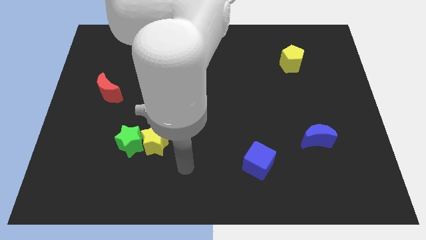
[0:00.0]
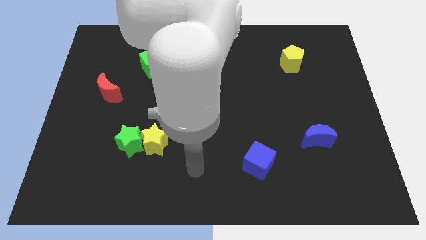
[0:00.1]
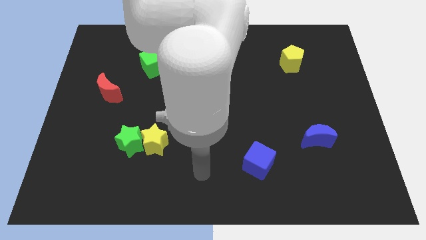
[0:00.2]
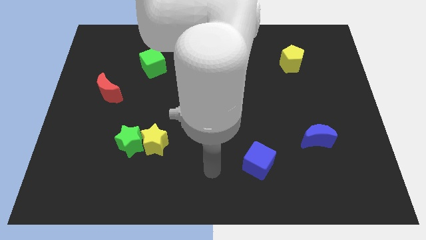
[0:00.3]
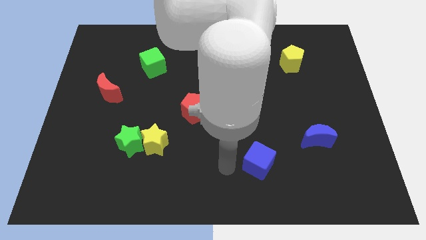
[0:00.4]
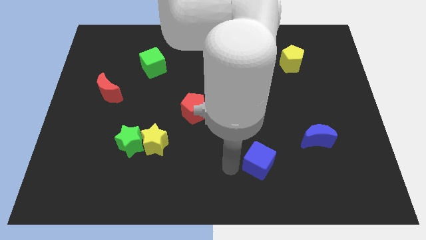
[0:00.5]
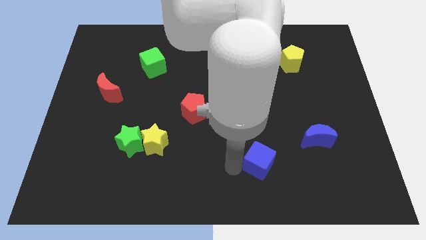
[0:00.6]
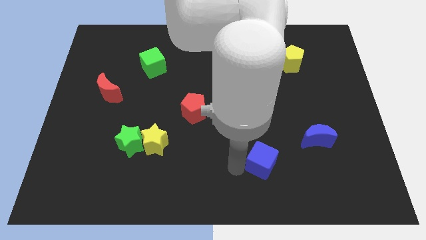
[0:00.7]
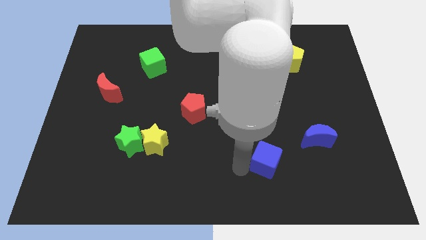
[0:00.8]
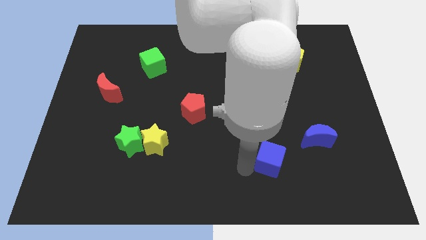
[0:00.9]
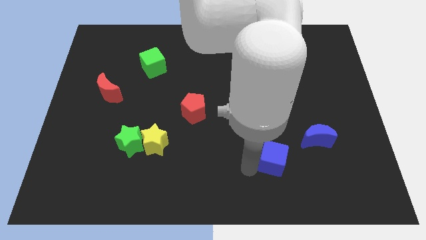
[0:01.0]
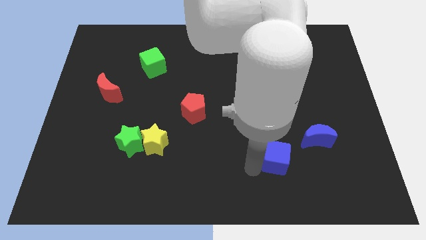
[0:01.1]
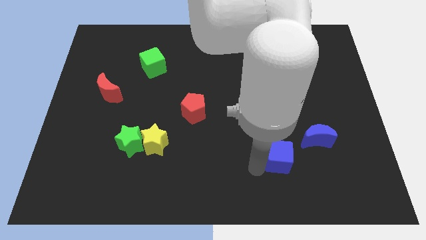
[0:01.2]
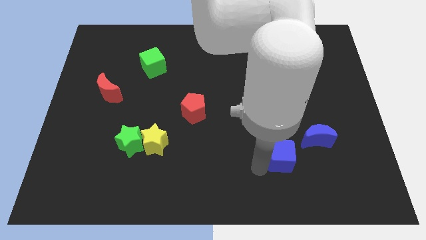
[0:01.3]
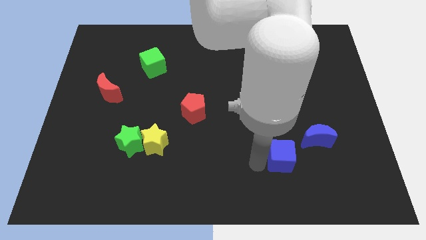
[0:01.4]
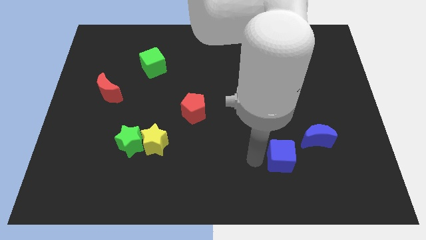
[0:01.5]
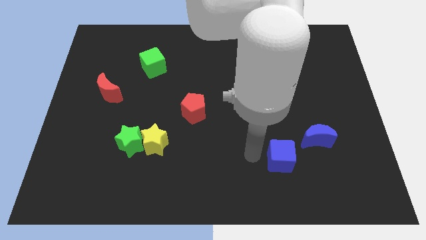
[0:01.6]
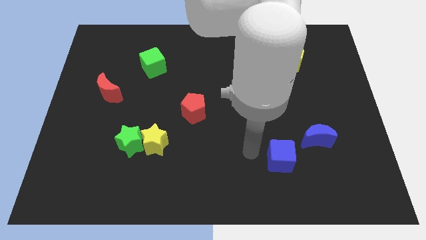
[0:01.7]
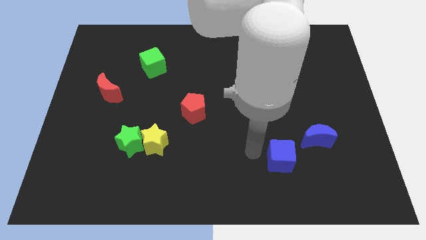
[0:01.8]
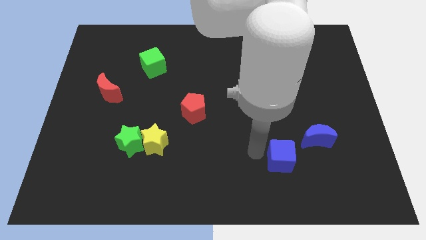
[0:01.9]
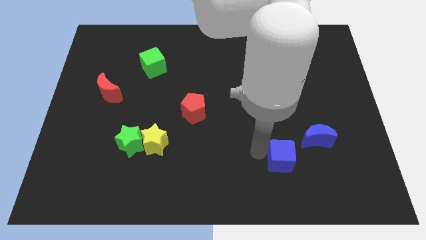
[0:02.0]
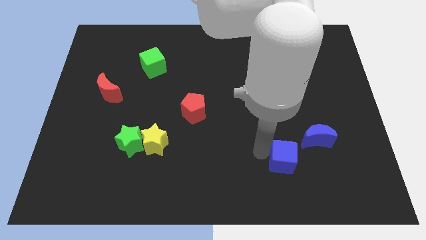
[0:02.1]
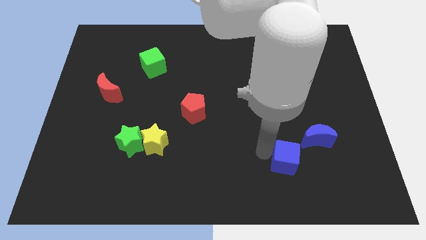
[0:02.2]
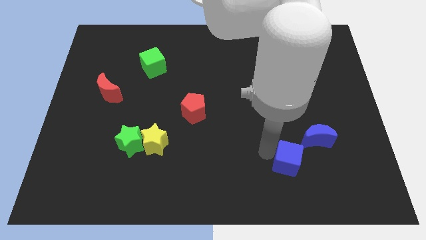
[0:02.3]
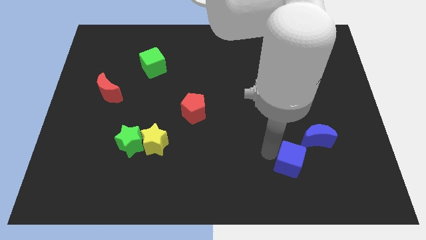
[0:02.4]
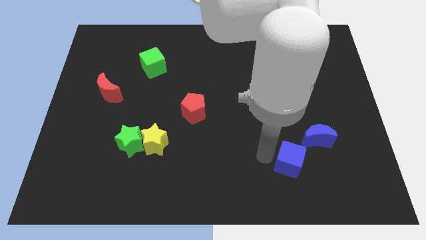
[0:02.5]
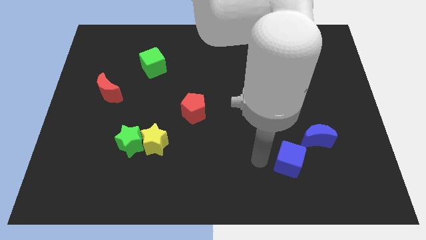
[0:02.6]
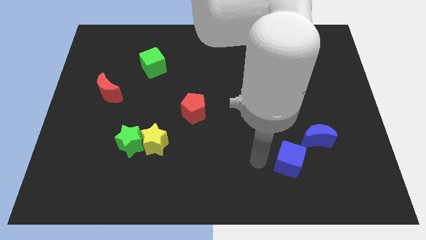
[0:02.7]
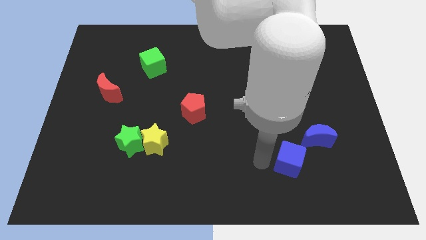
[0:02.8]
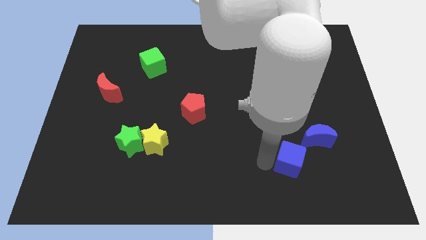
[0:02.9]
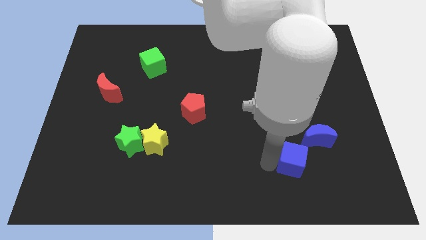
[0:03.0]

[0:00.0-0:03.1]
slightly slide the blue cube right

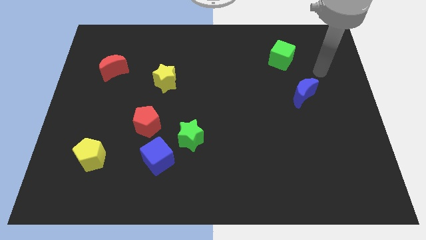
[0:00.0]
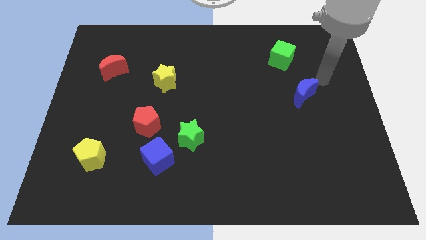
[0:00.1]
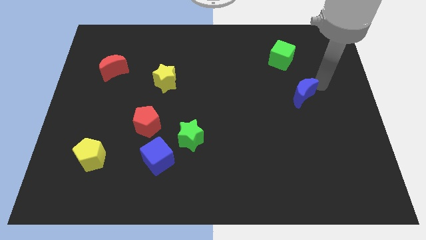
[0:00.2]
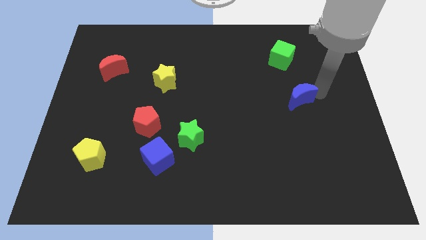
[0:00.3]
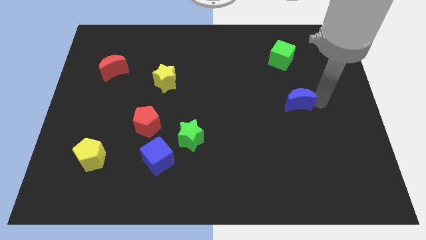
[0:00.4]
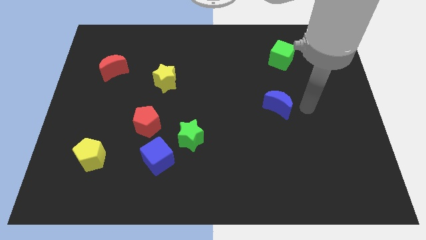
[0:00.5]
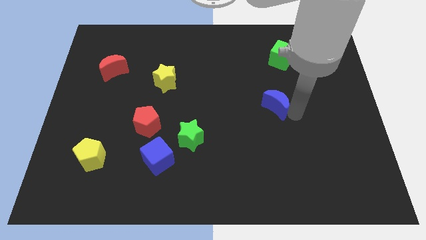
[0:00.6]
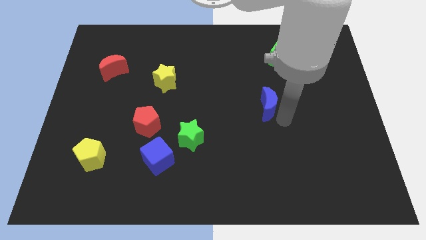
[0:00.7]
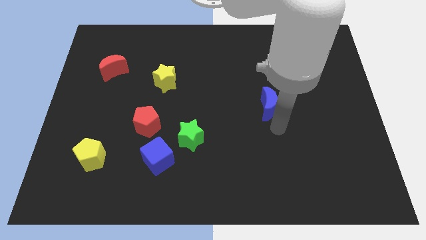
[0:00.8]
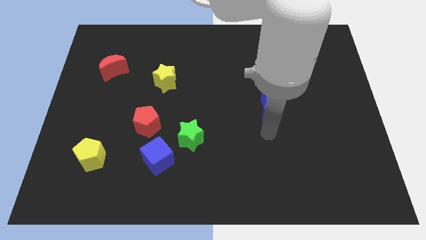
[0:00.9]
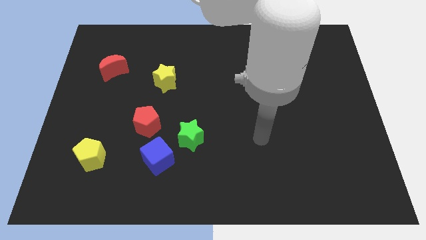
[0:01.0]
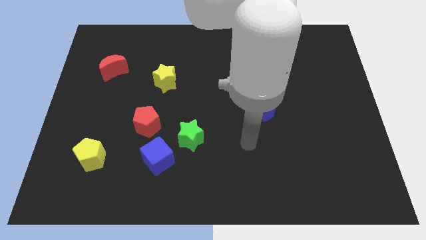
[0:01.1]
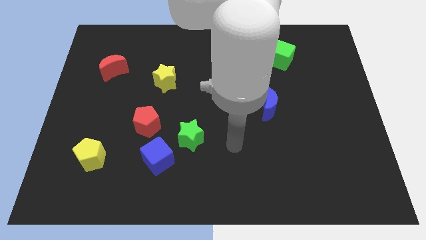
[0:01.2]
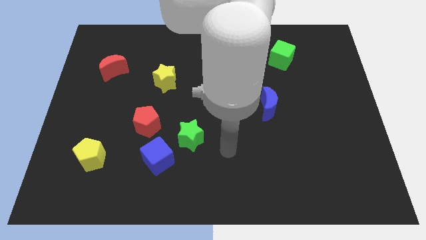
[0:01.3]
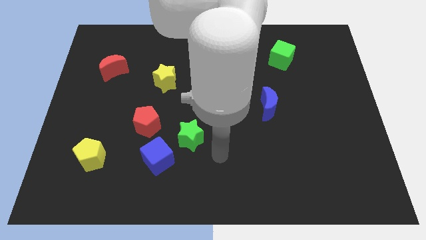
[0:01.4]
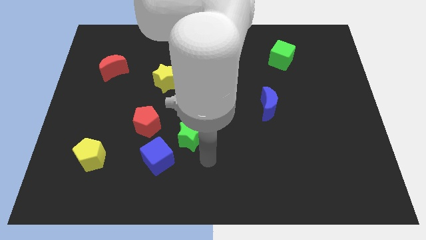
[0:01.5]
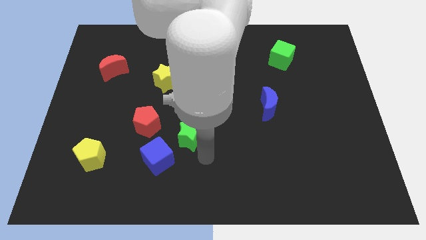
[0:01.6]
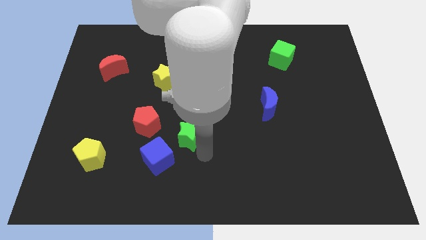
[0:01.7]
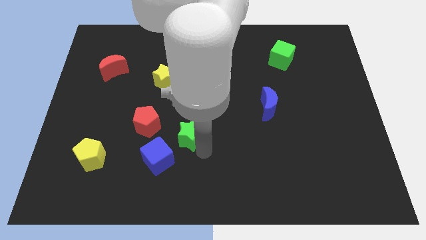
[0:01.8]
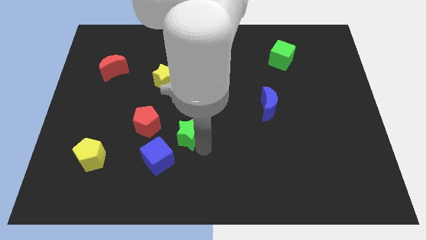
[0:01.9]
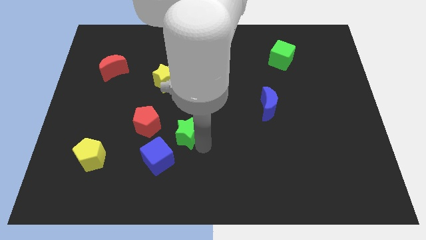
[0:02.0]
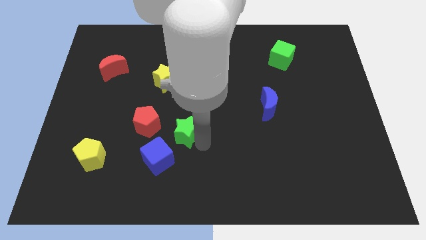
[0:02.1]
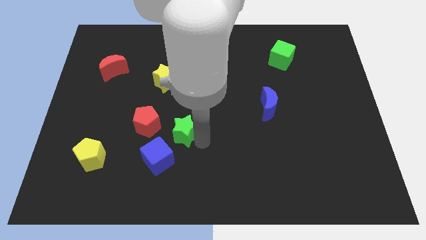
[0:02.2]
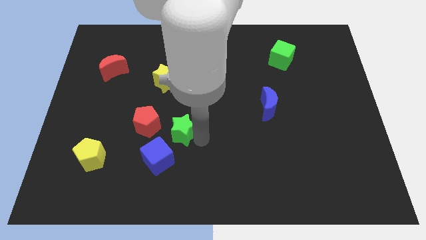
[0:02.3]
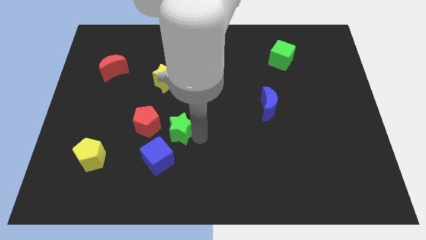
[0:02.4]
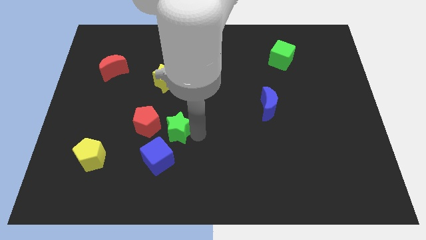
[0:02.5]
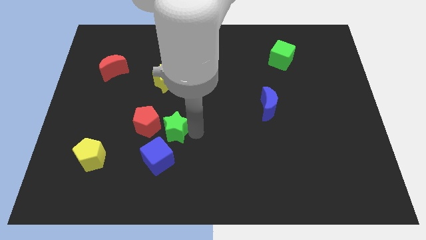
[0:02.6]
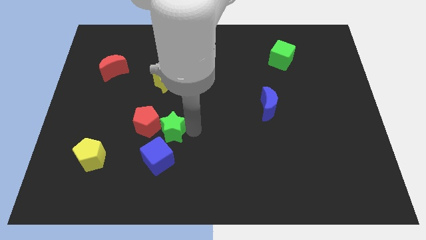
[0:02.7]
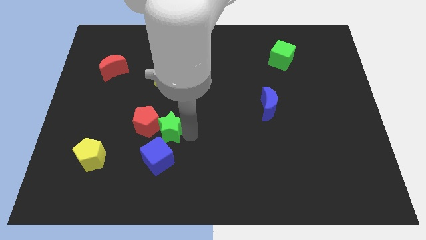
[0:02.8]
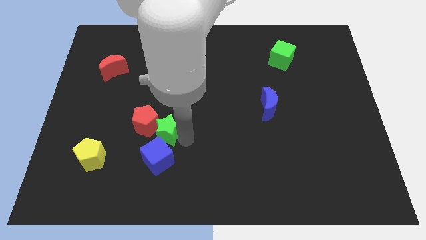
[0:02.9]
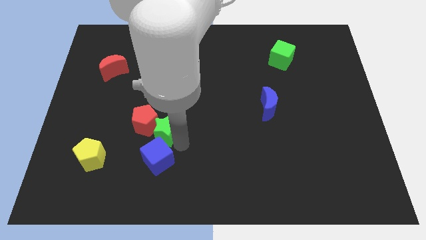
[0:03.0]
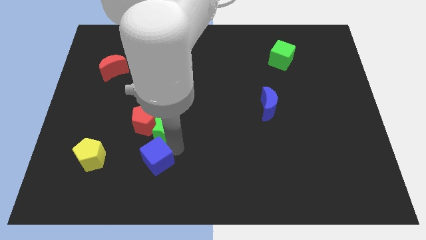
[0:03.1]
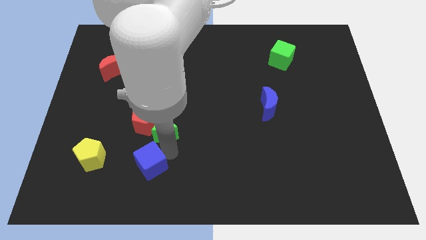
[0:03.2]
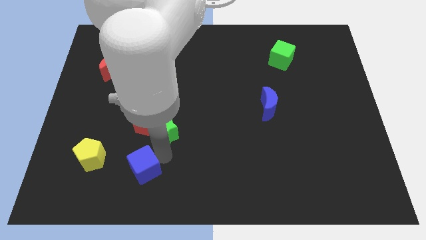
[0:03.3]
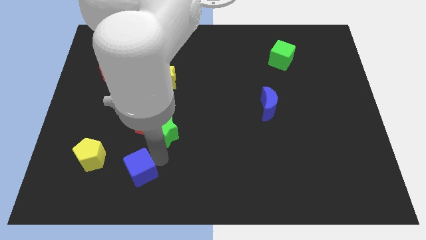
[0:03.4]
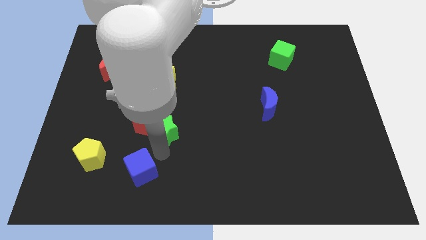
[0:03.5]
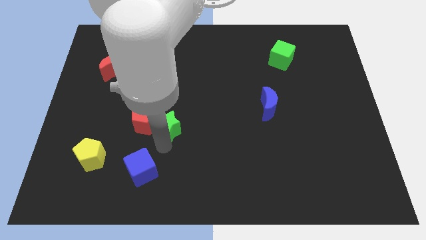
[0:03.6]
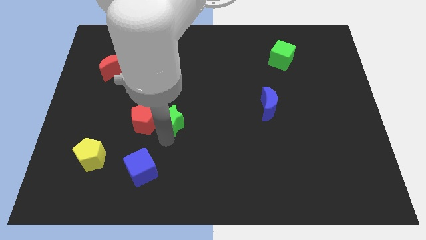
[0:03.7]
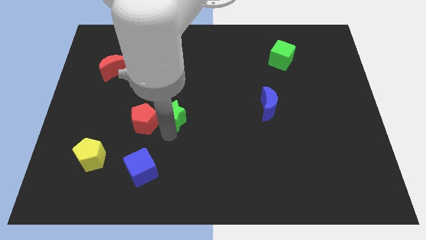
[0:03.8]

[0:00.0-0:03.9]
slide the green star a bit up and then left

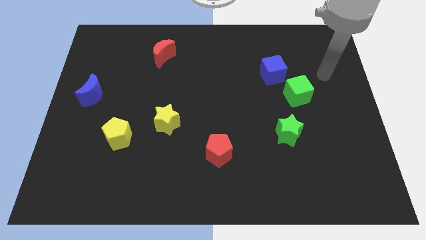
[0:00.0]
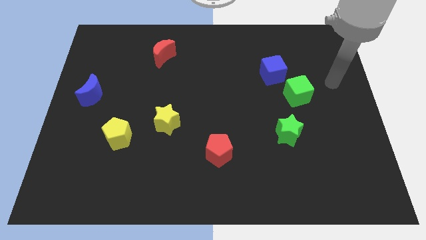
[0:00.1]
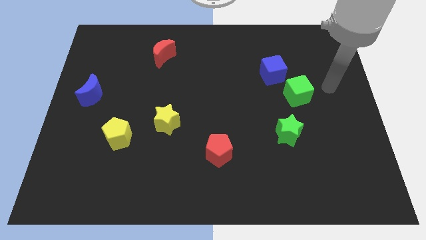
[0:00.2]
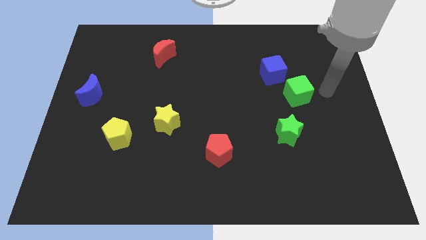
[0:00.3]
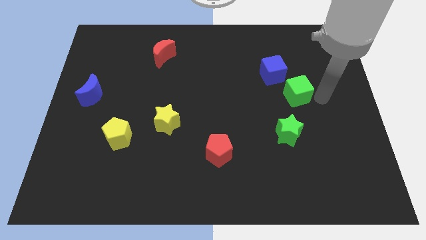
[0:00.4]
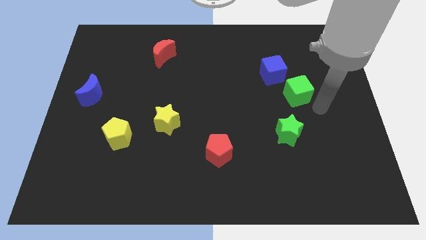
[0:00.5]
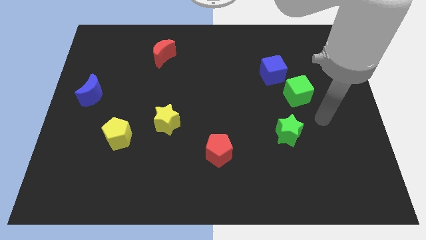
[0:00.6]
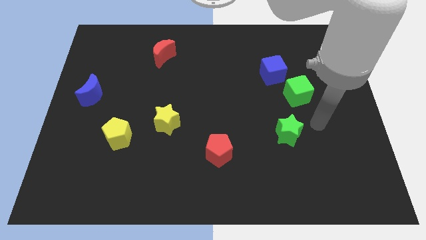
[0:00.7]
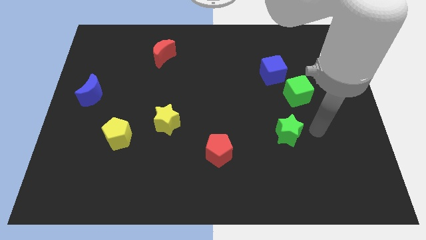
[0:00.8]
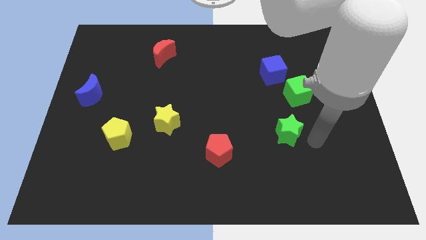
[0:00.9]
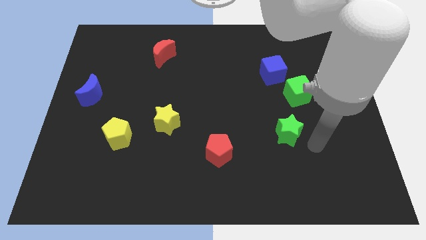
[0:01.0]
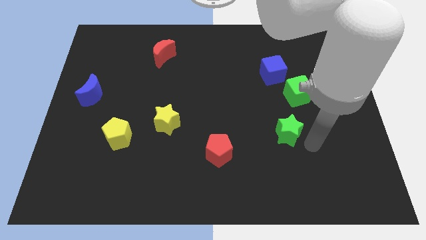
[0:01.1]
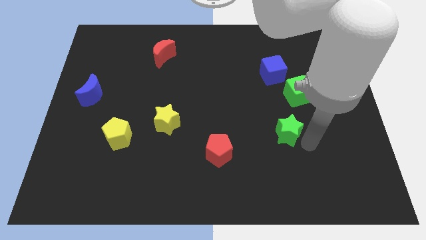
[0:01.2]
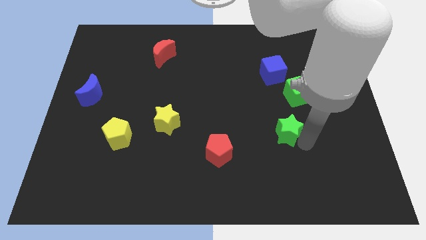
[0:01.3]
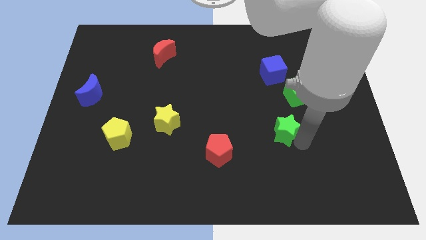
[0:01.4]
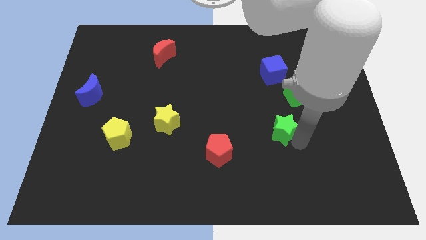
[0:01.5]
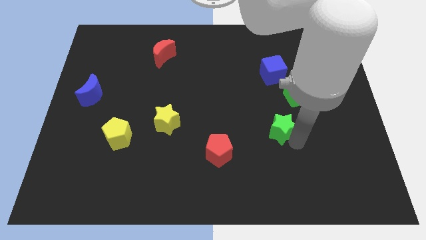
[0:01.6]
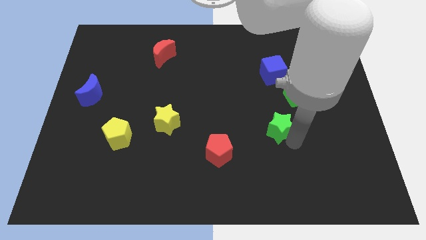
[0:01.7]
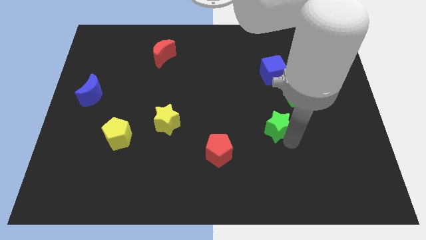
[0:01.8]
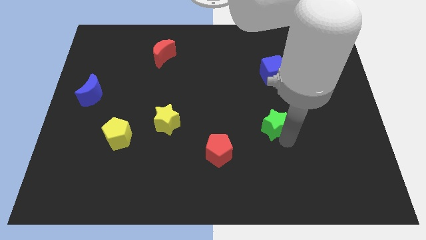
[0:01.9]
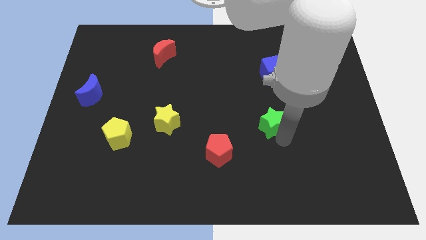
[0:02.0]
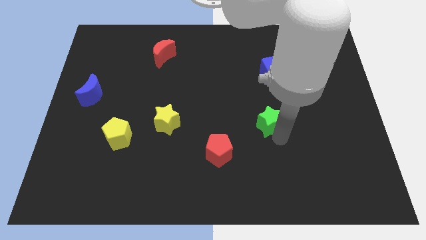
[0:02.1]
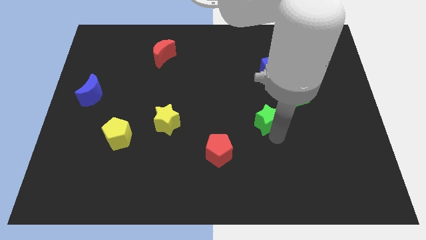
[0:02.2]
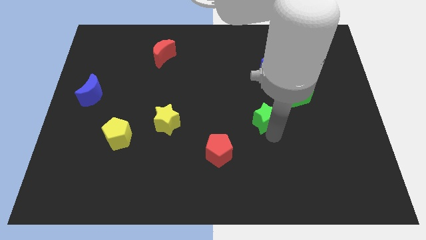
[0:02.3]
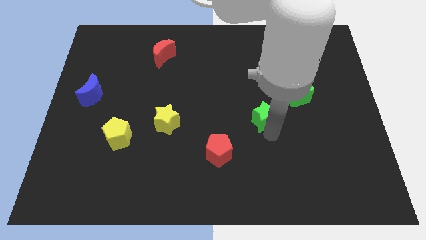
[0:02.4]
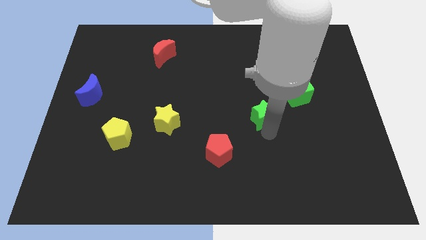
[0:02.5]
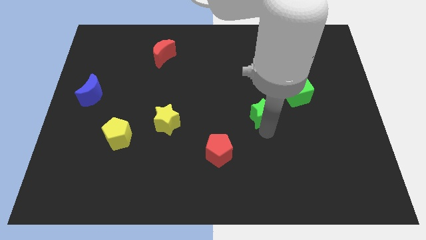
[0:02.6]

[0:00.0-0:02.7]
slide the green star diagonally up and to the left a little
